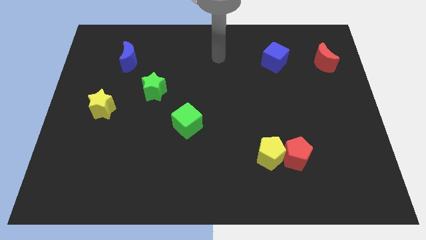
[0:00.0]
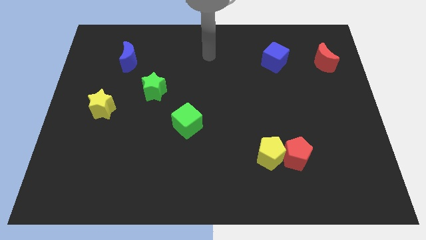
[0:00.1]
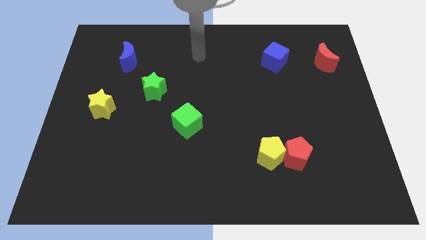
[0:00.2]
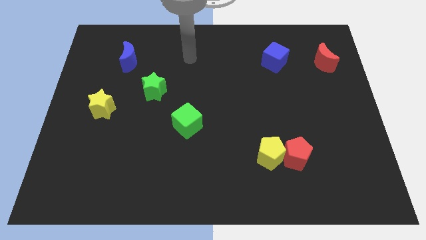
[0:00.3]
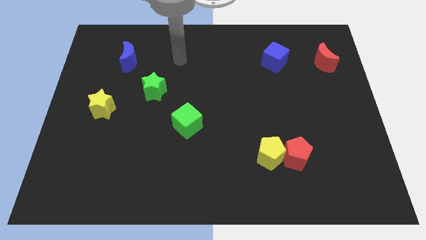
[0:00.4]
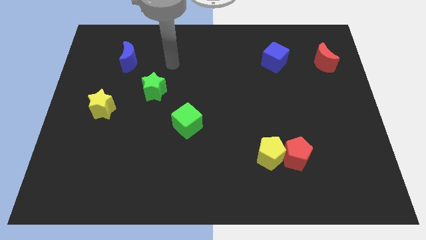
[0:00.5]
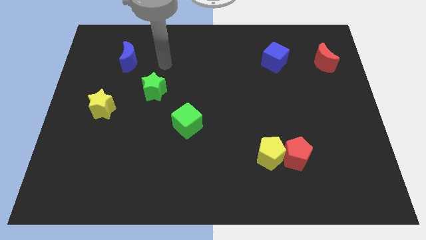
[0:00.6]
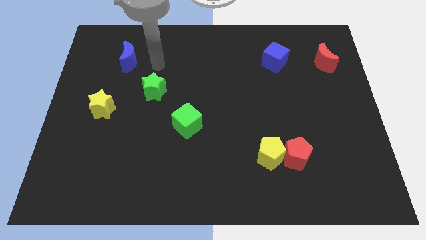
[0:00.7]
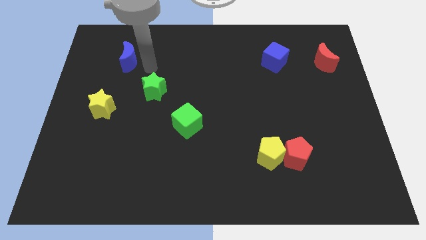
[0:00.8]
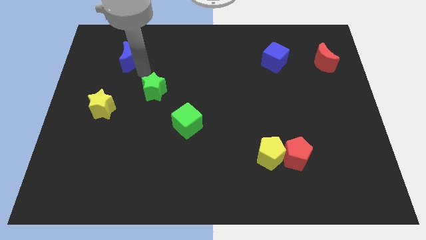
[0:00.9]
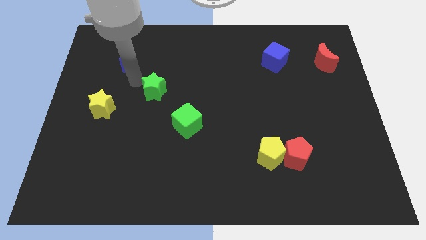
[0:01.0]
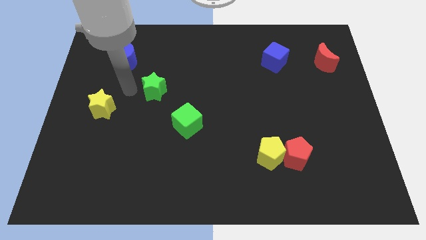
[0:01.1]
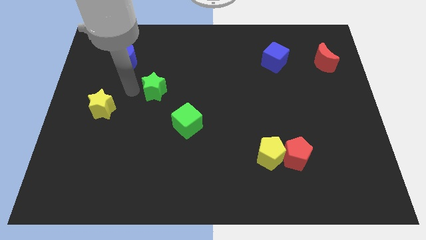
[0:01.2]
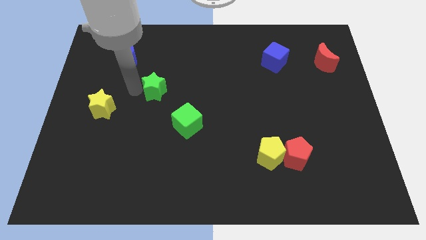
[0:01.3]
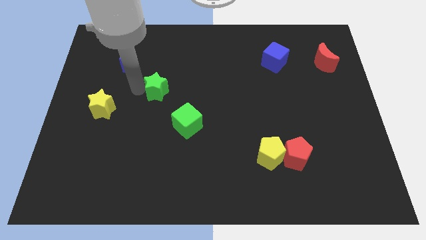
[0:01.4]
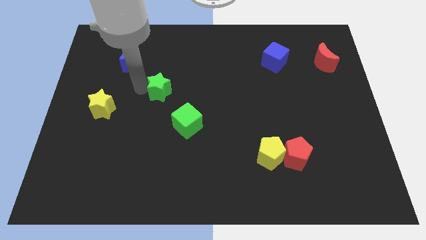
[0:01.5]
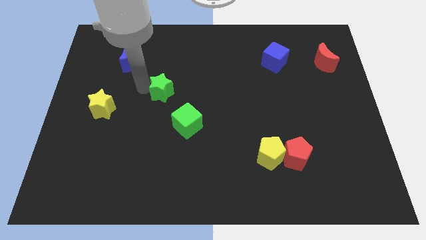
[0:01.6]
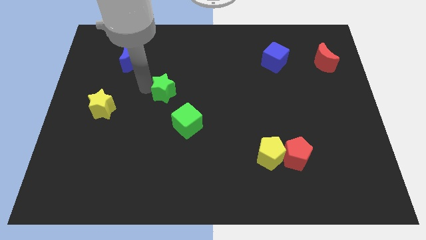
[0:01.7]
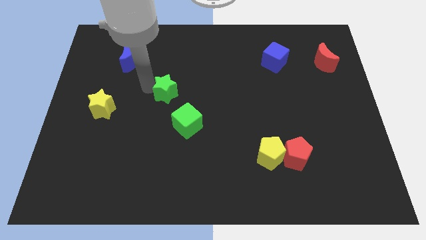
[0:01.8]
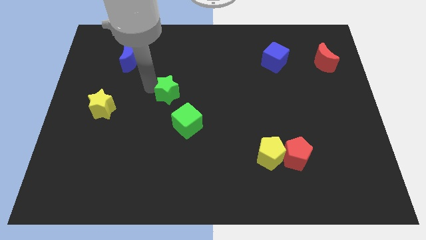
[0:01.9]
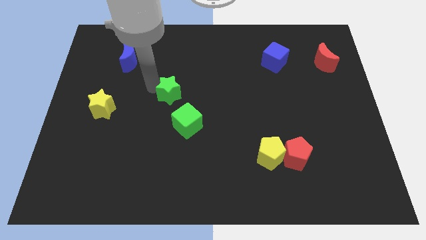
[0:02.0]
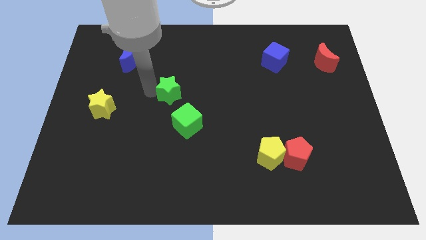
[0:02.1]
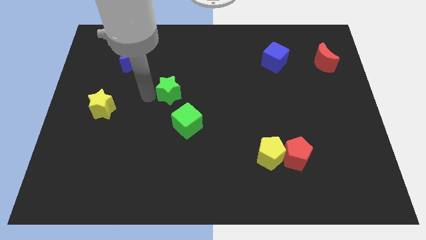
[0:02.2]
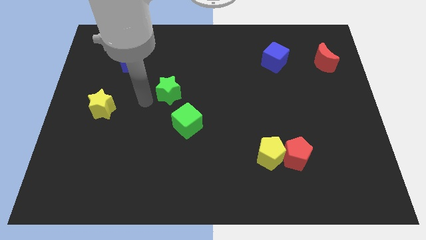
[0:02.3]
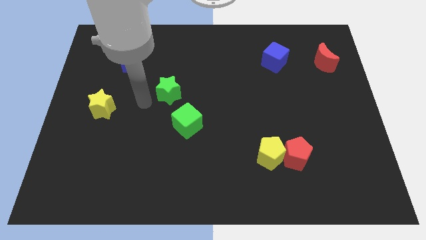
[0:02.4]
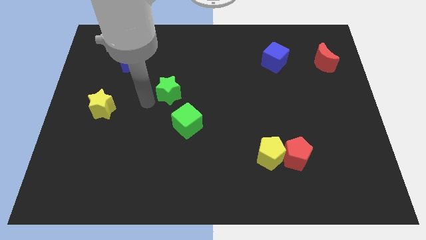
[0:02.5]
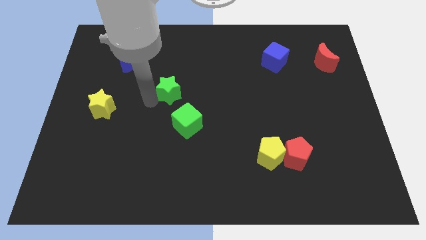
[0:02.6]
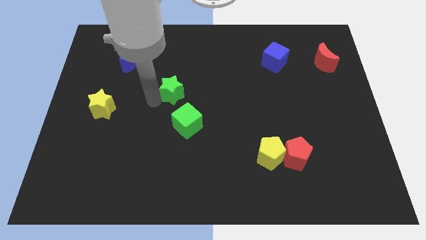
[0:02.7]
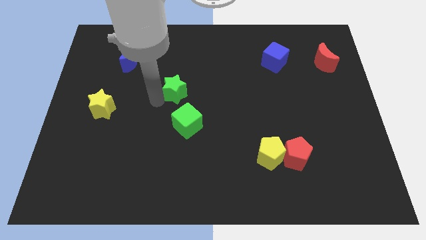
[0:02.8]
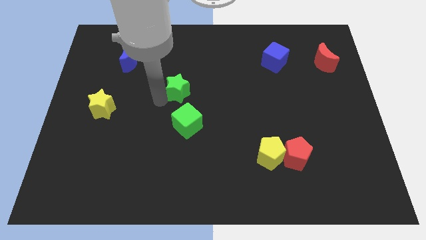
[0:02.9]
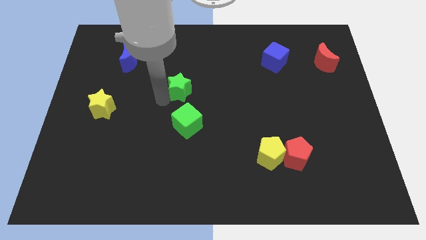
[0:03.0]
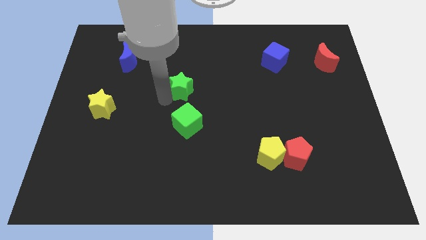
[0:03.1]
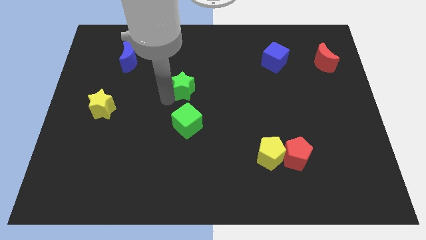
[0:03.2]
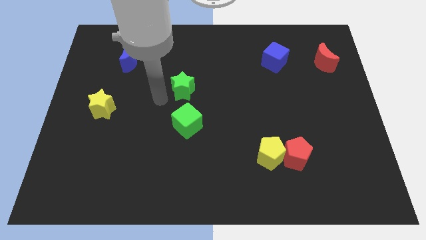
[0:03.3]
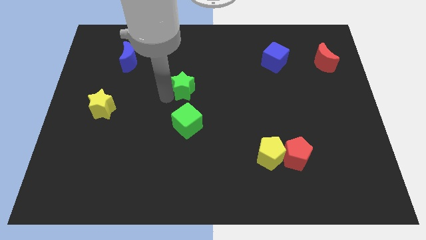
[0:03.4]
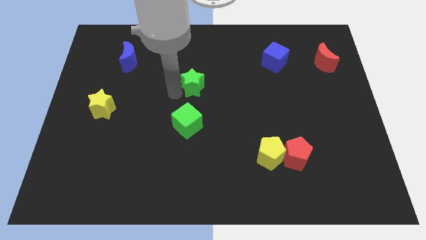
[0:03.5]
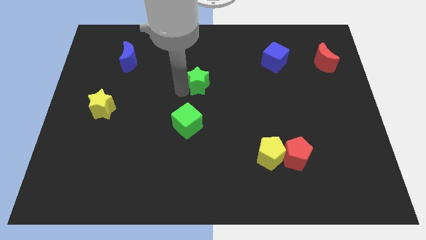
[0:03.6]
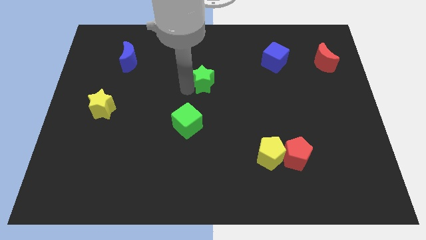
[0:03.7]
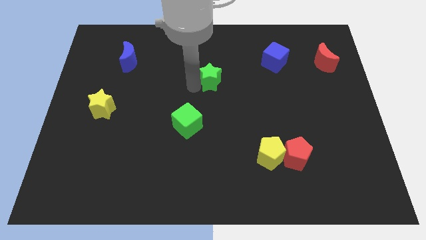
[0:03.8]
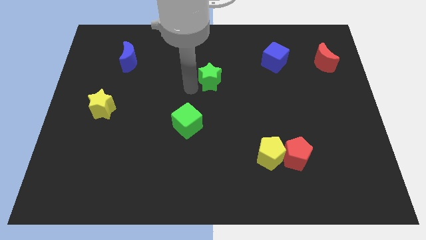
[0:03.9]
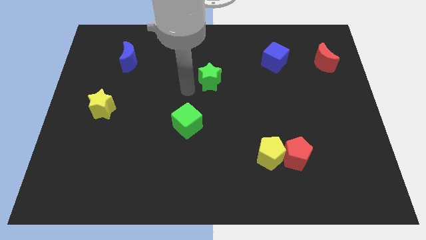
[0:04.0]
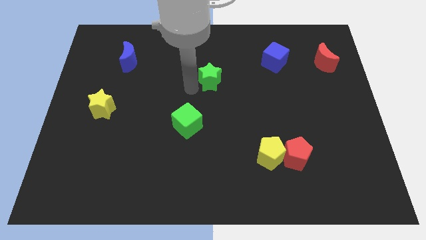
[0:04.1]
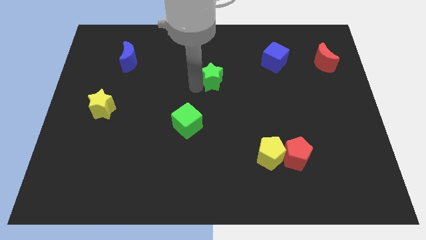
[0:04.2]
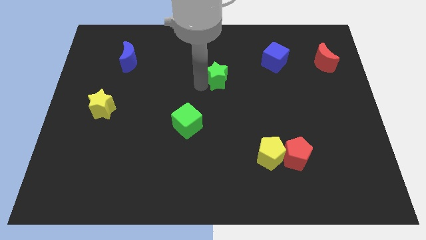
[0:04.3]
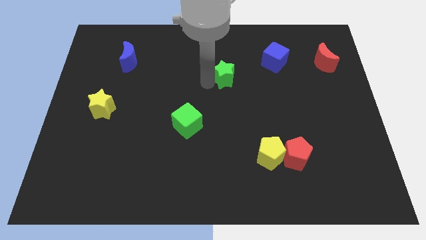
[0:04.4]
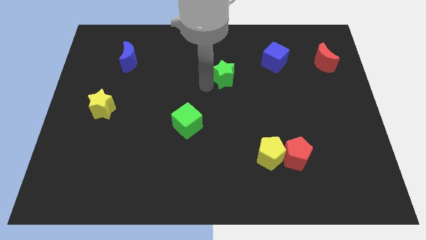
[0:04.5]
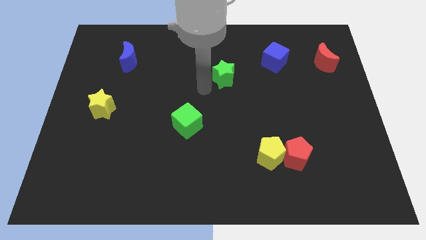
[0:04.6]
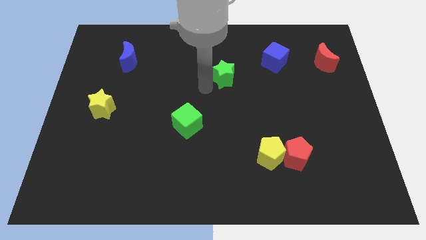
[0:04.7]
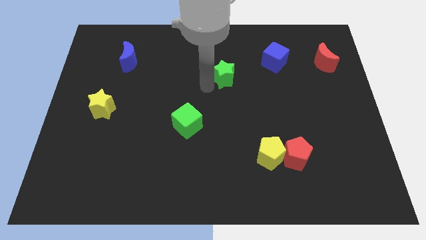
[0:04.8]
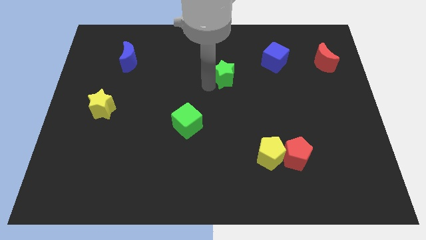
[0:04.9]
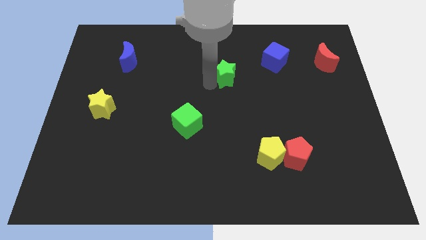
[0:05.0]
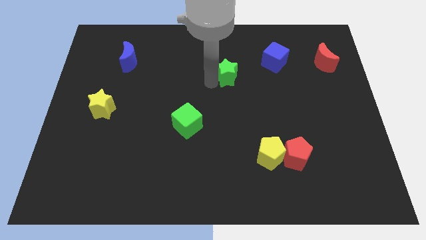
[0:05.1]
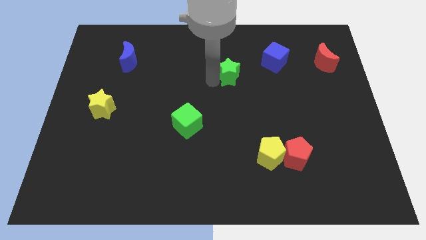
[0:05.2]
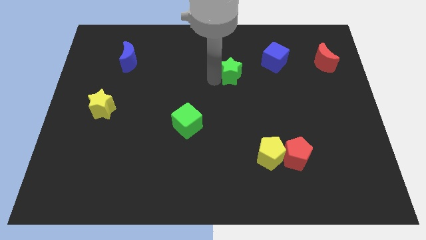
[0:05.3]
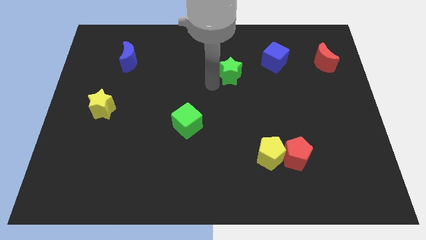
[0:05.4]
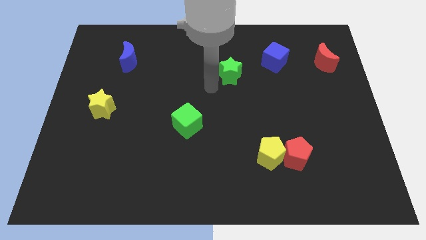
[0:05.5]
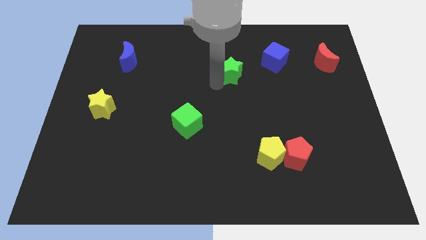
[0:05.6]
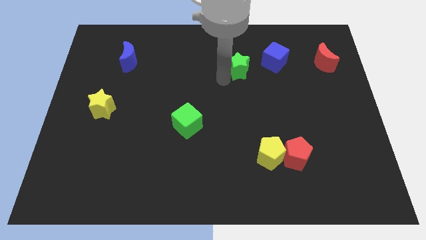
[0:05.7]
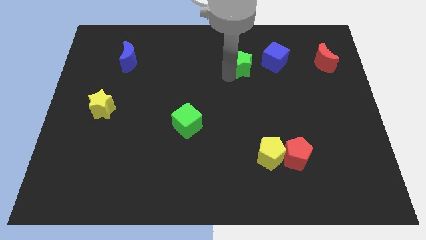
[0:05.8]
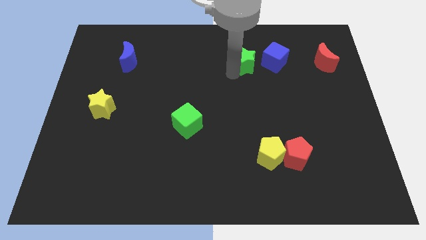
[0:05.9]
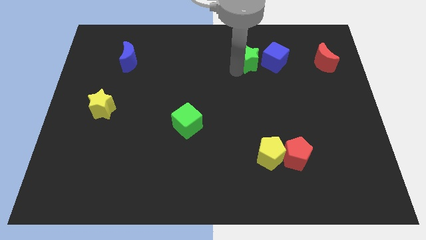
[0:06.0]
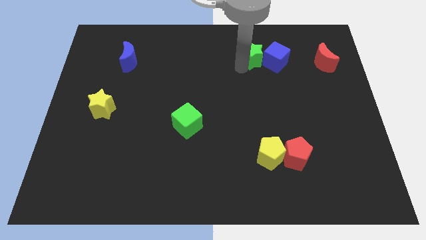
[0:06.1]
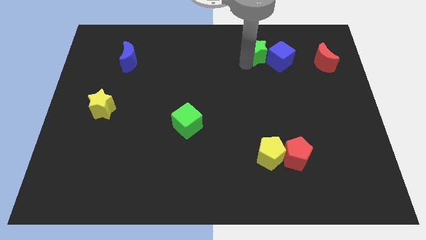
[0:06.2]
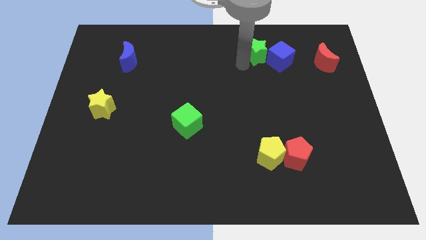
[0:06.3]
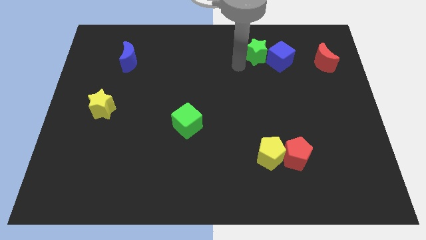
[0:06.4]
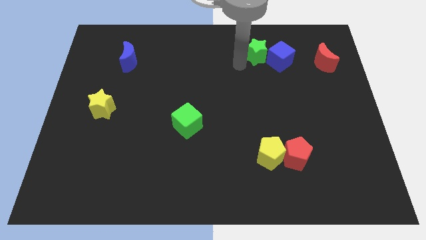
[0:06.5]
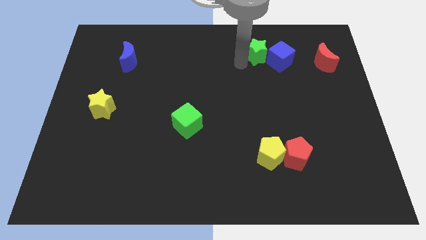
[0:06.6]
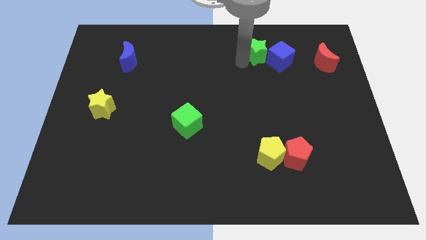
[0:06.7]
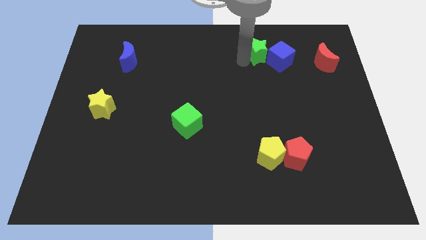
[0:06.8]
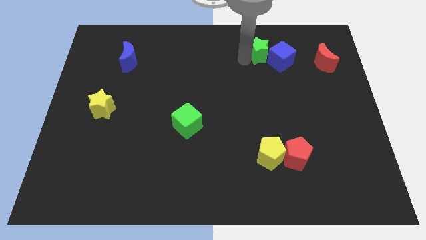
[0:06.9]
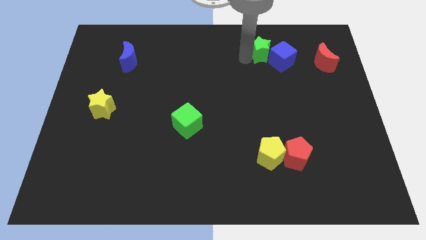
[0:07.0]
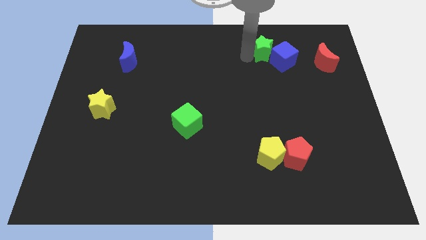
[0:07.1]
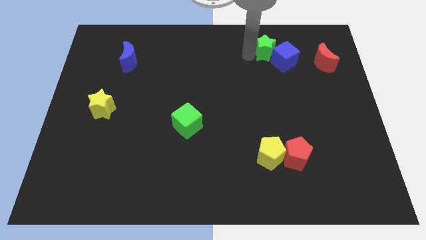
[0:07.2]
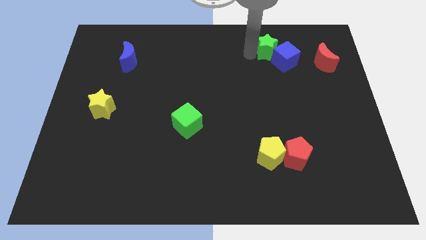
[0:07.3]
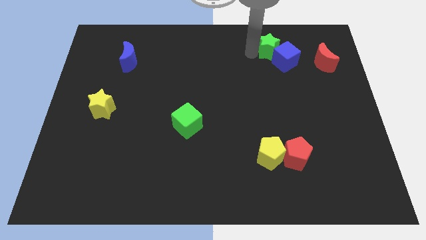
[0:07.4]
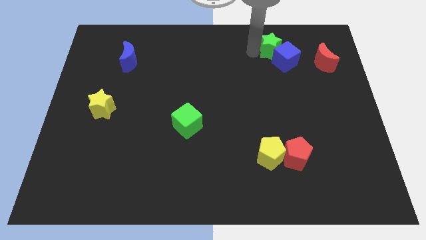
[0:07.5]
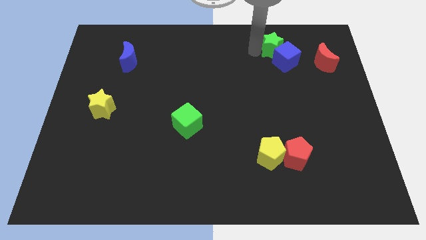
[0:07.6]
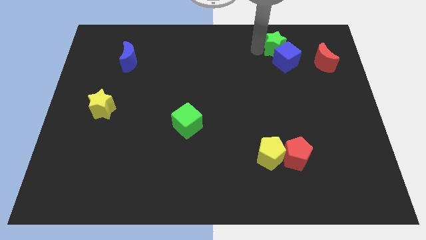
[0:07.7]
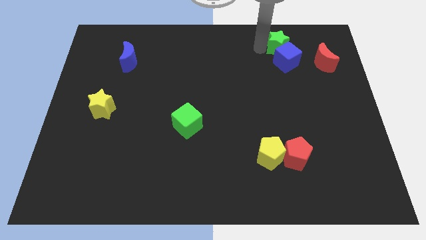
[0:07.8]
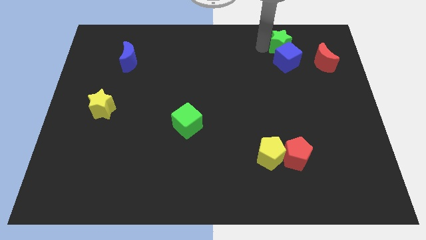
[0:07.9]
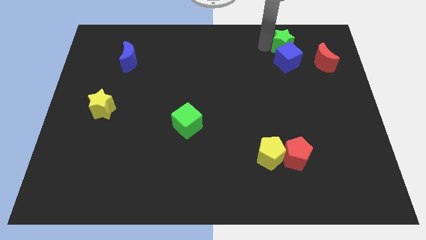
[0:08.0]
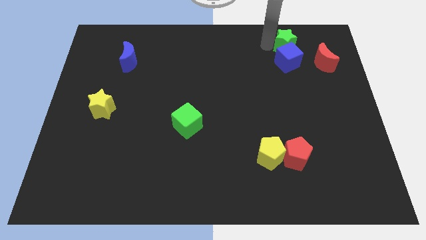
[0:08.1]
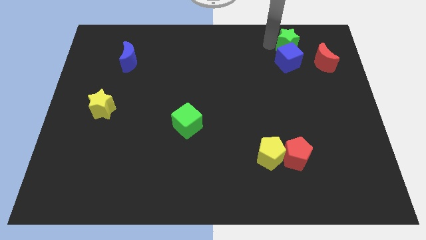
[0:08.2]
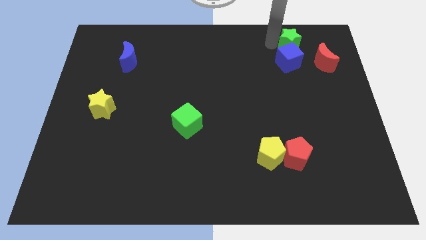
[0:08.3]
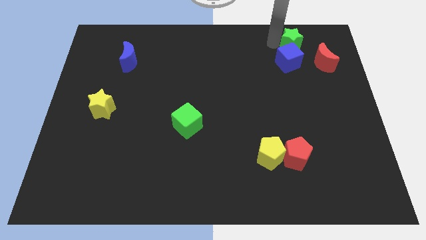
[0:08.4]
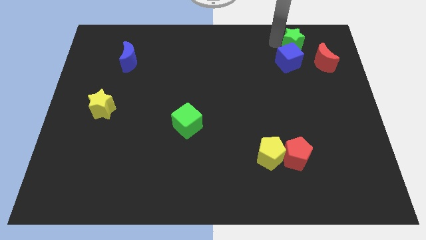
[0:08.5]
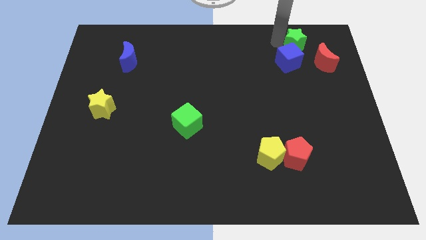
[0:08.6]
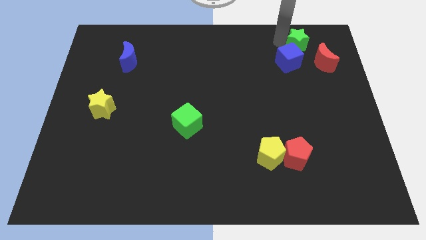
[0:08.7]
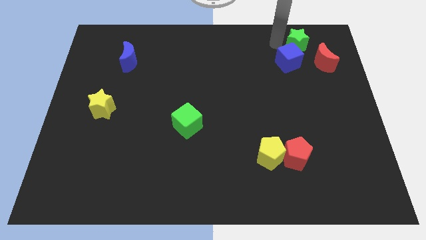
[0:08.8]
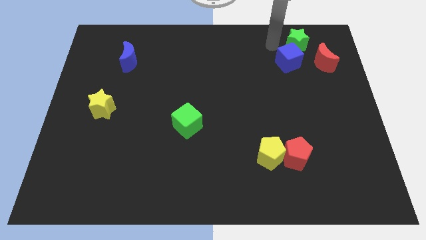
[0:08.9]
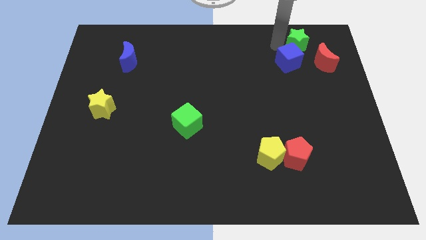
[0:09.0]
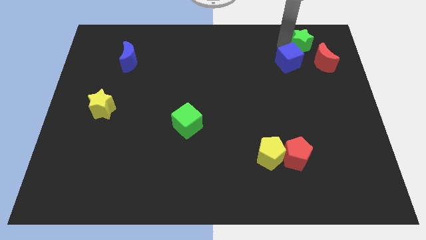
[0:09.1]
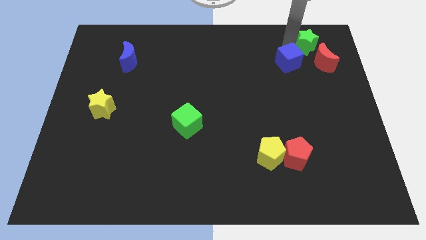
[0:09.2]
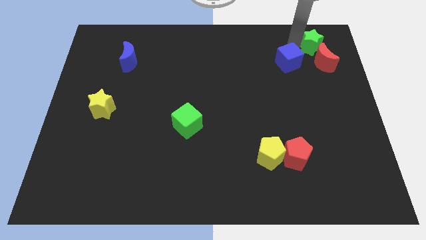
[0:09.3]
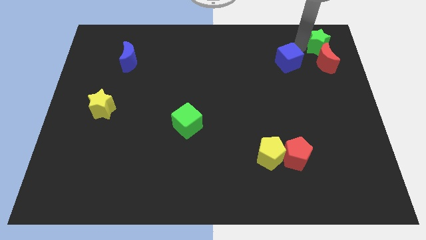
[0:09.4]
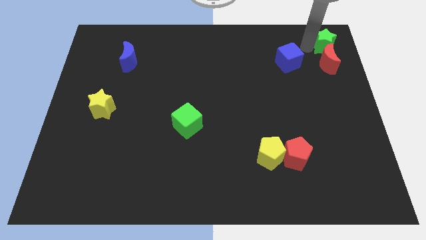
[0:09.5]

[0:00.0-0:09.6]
push the green star to the top right corner
